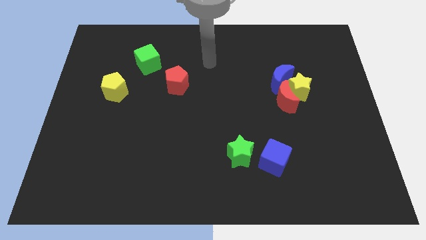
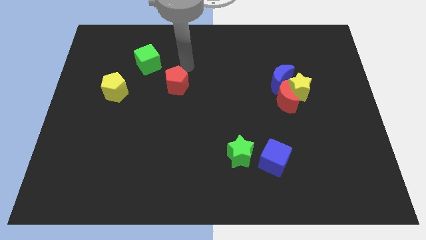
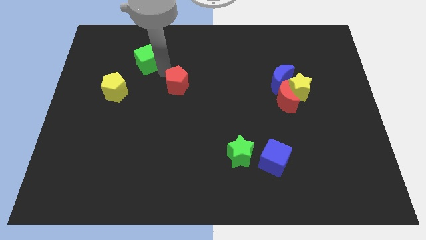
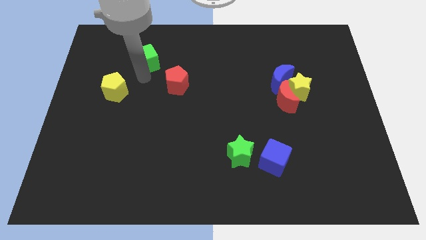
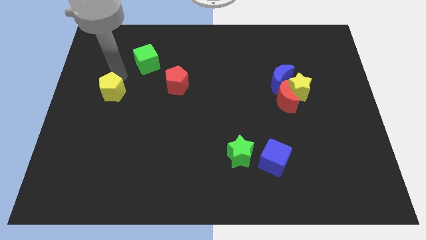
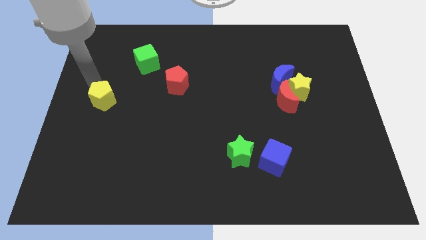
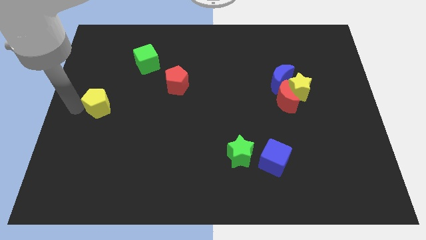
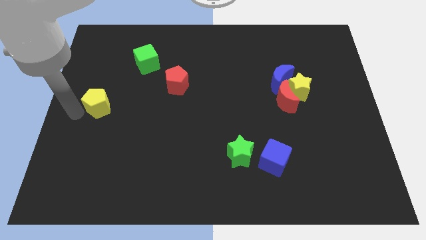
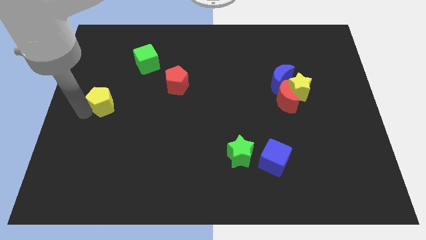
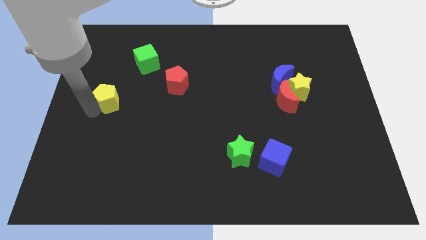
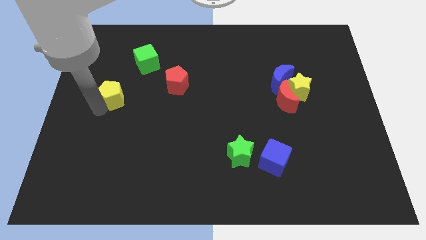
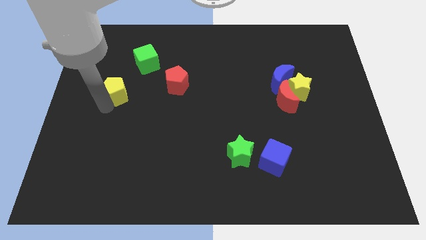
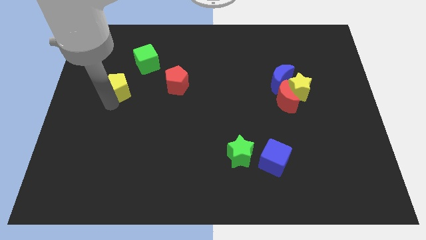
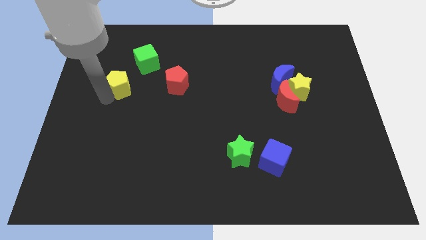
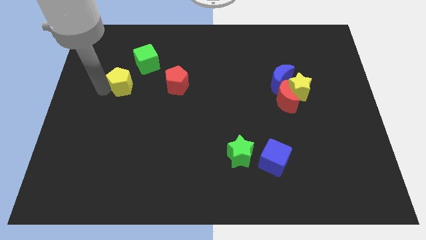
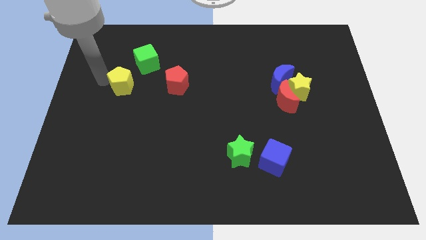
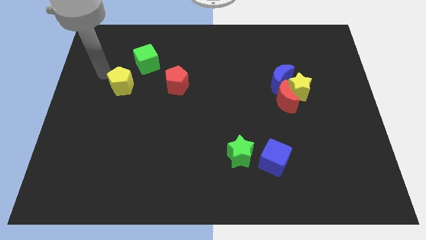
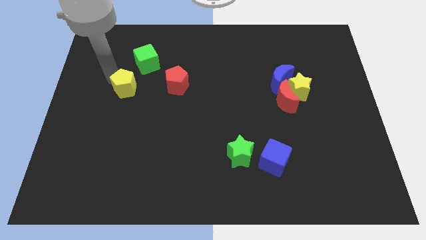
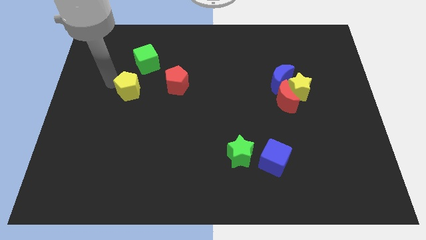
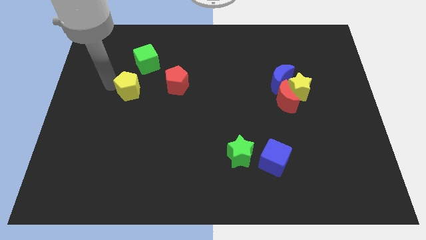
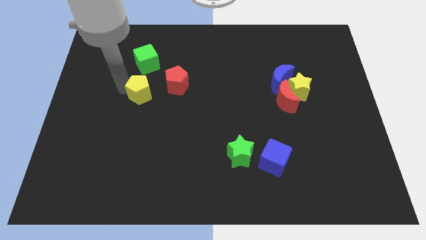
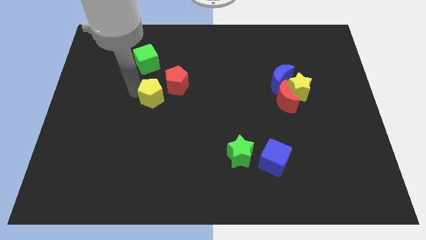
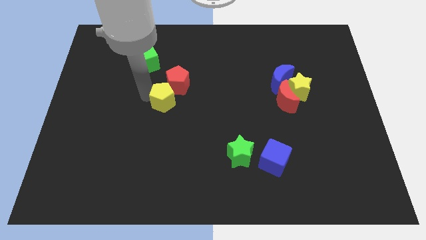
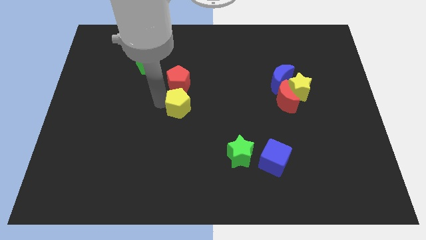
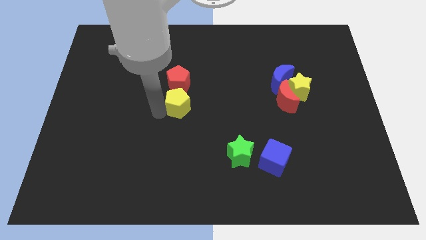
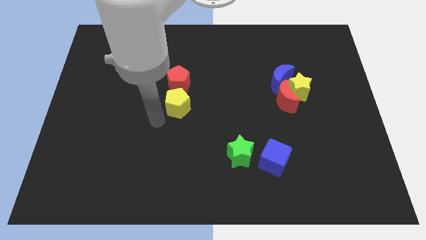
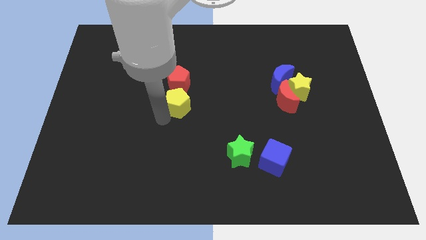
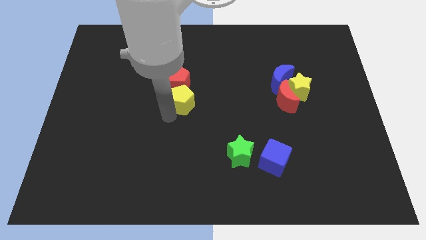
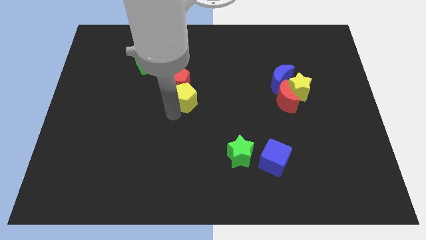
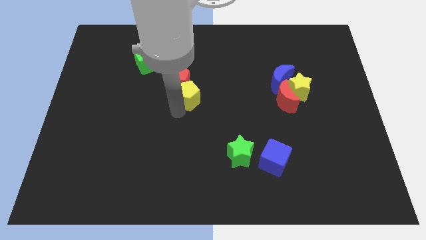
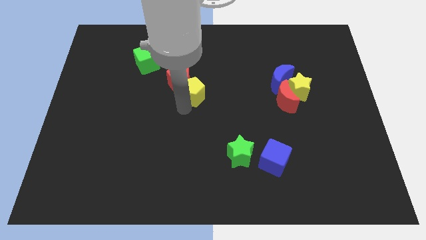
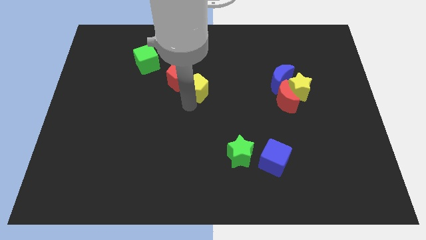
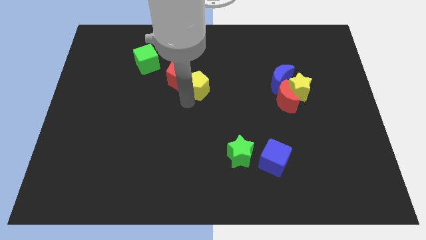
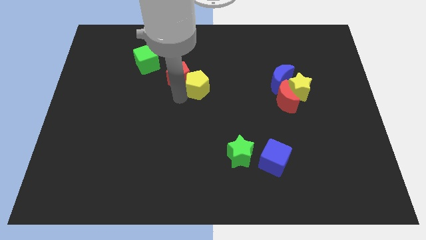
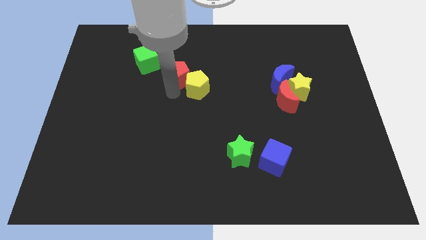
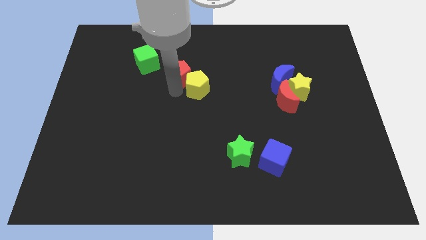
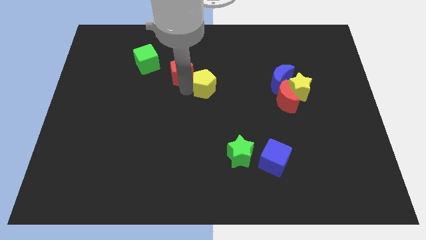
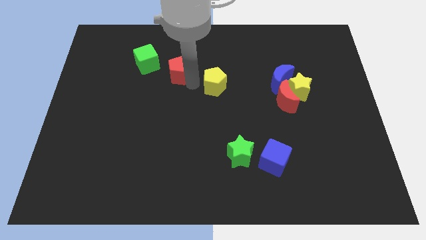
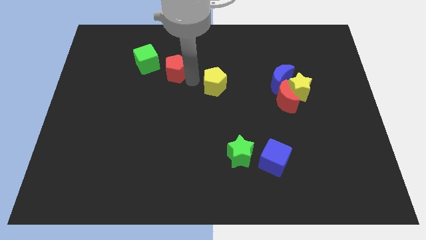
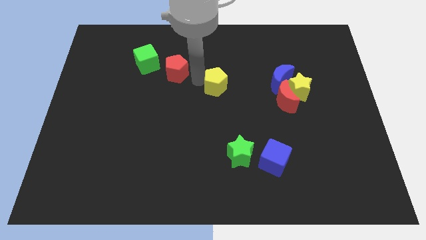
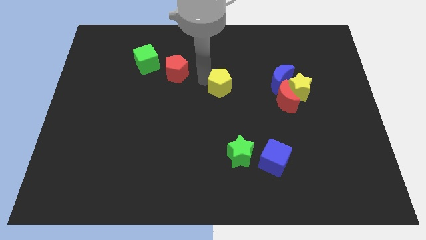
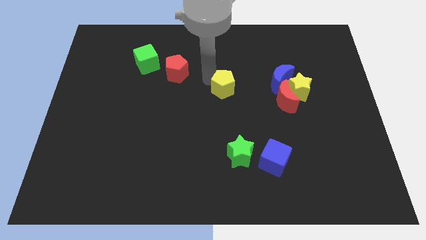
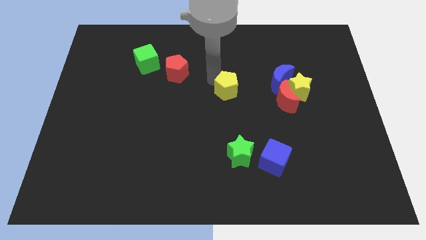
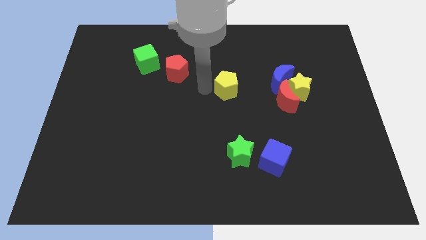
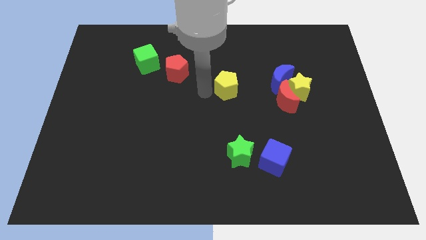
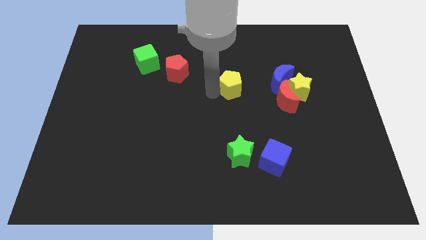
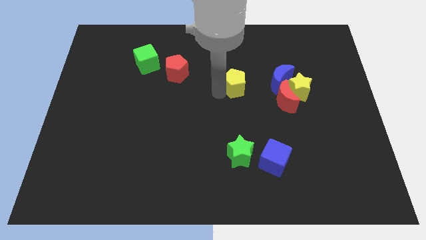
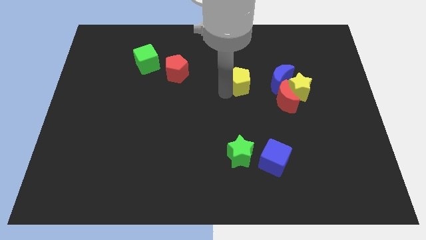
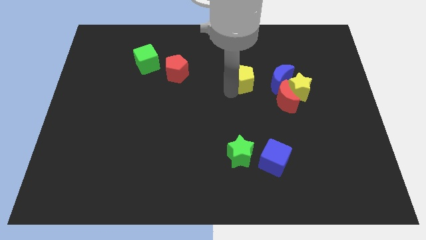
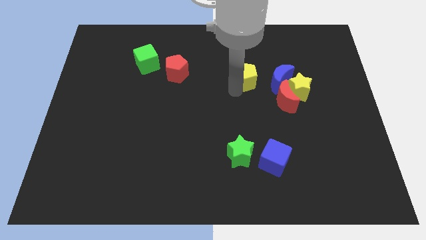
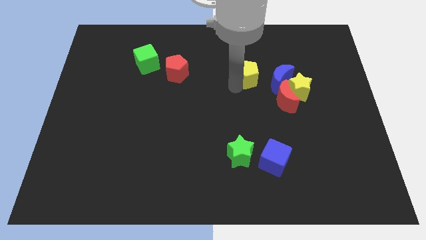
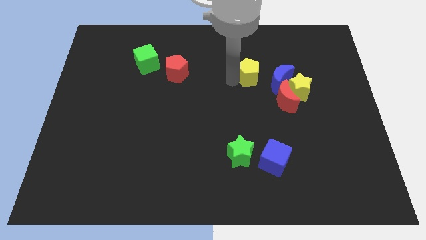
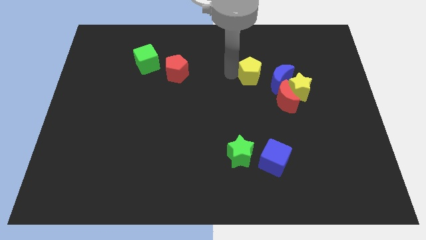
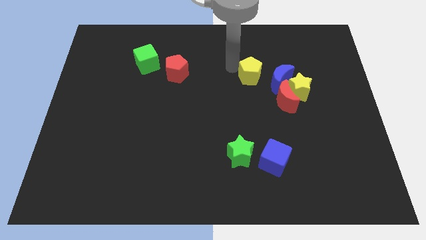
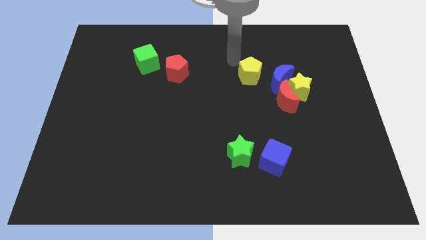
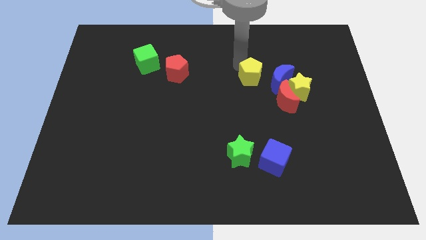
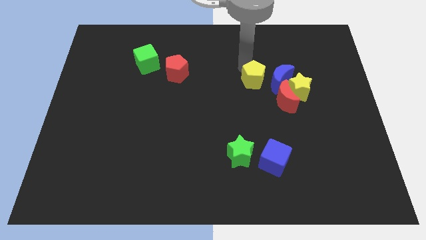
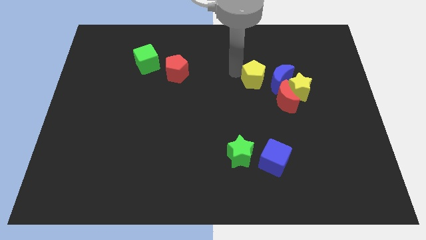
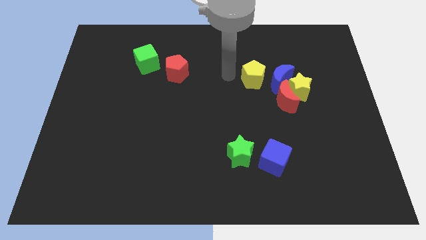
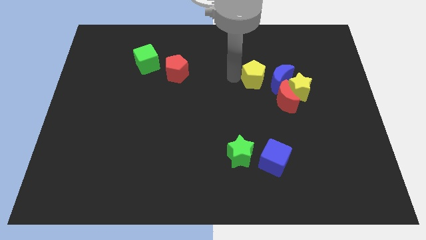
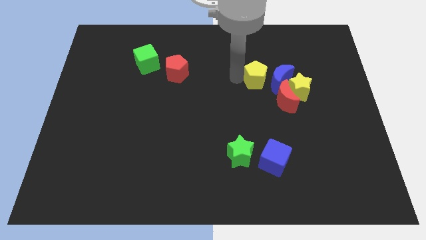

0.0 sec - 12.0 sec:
slide the yellow pentagon to the blue moon

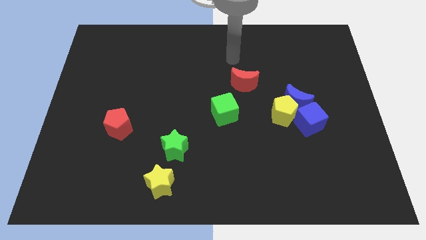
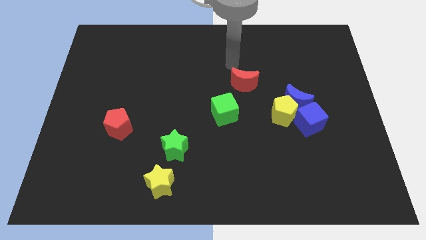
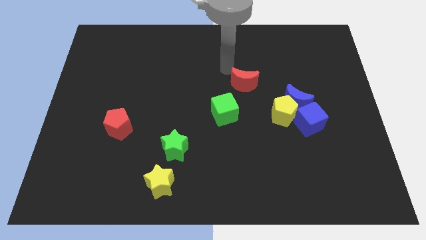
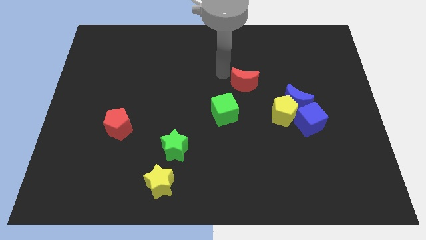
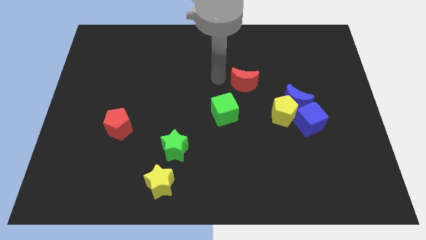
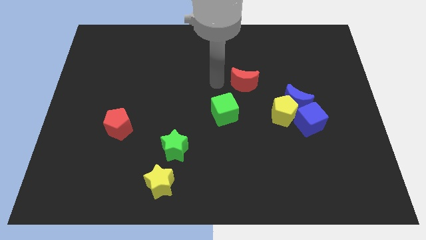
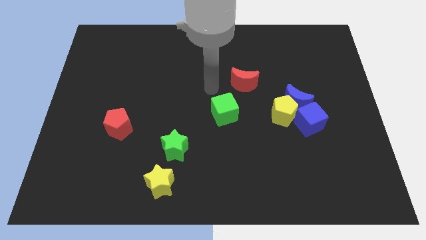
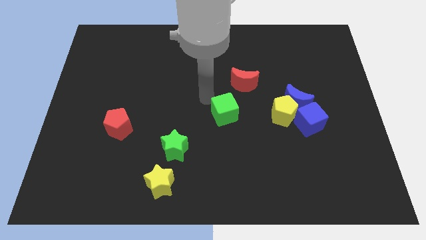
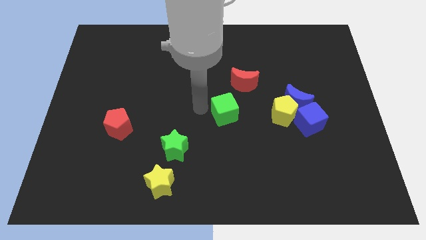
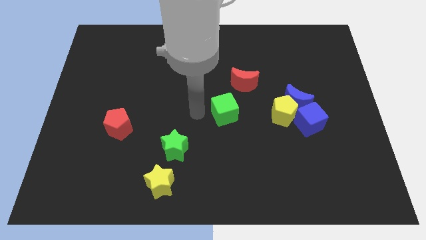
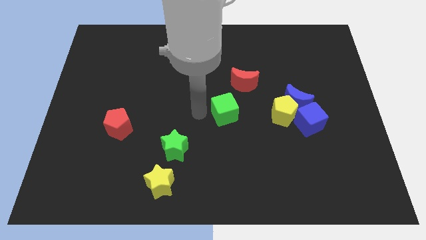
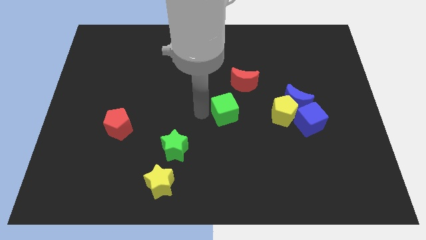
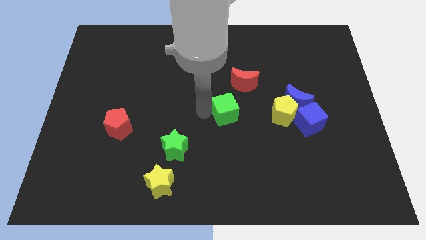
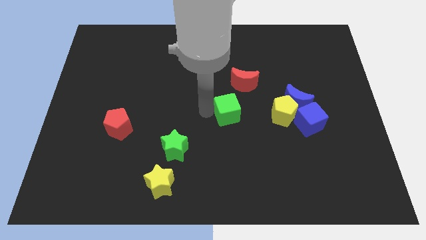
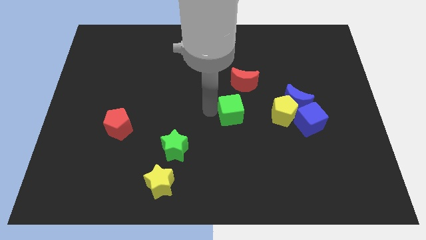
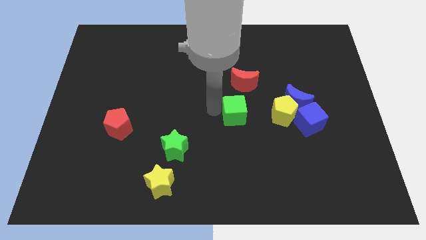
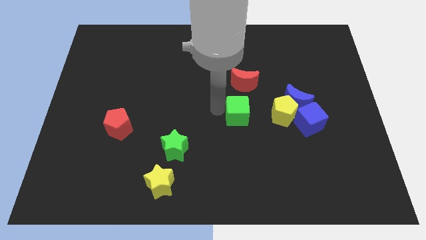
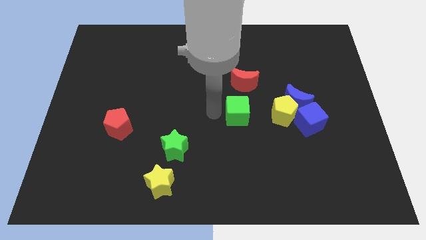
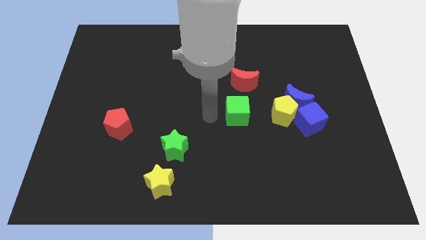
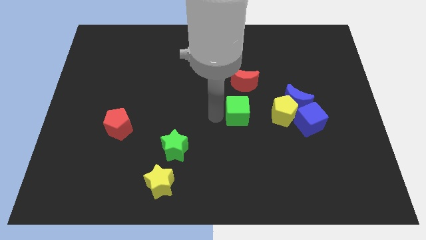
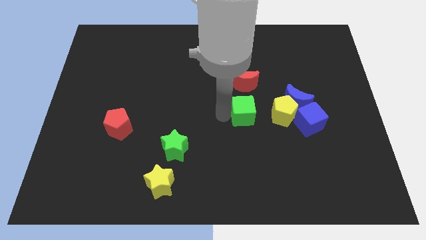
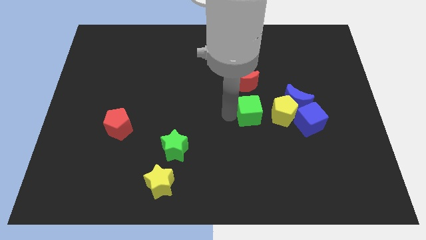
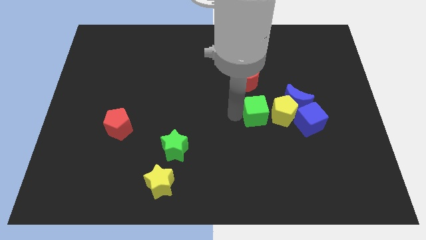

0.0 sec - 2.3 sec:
push the green cube to the yellow pentagon
